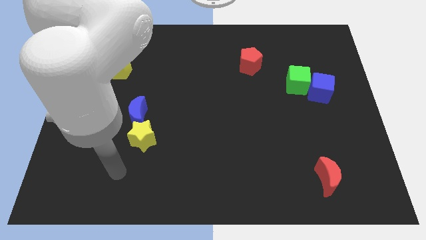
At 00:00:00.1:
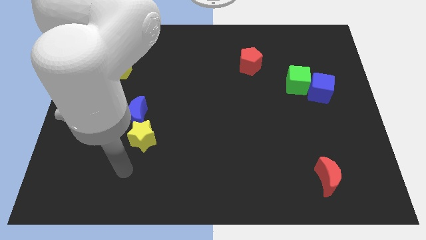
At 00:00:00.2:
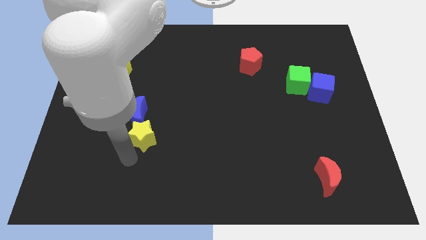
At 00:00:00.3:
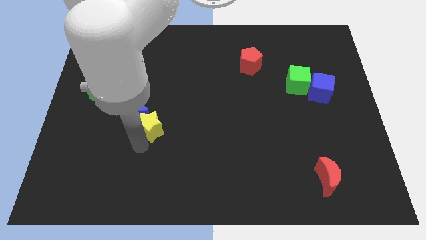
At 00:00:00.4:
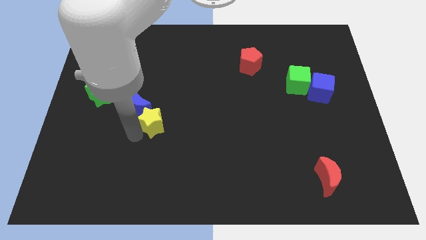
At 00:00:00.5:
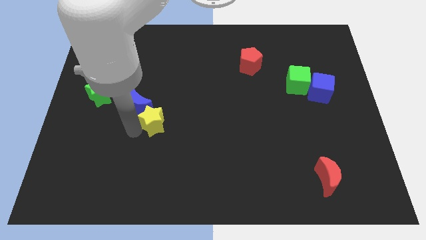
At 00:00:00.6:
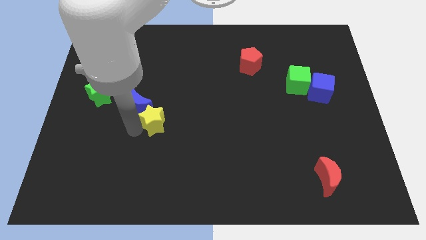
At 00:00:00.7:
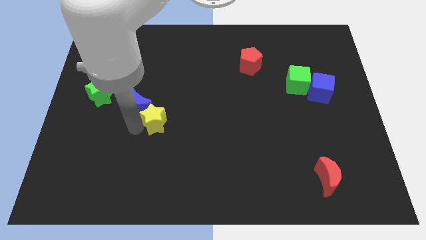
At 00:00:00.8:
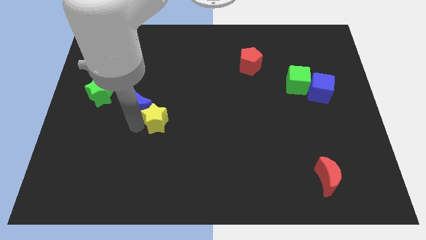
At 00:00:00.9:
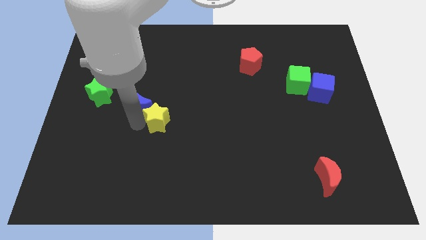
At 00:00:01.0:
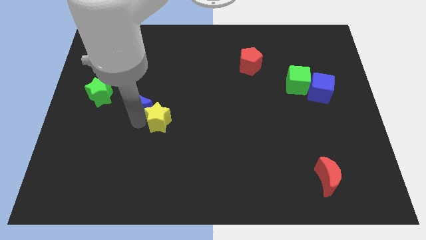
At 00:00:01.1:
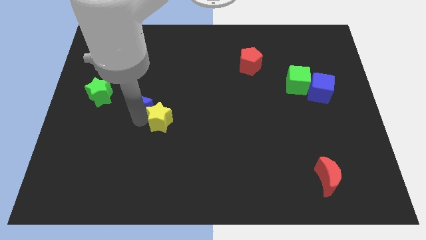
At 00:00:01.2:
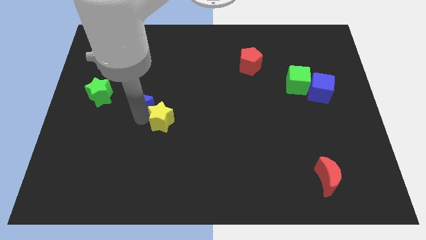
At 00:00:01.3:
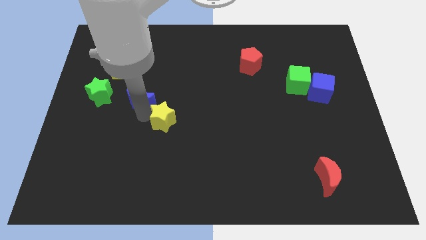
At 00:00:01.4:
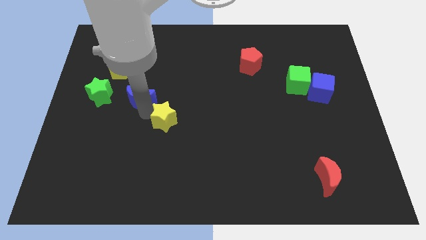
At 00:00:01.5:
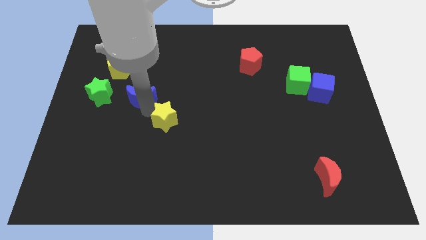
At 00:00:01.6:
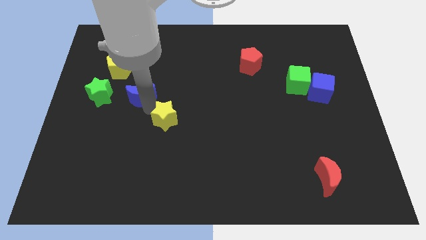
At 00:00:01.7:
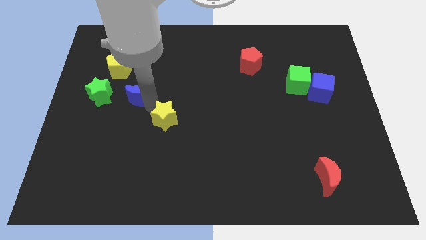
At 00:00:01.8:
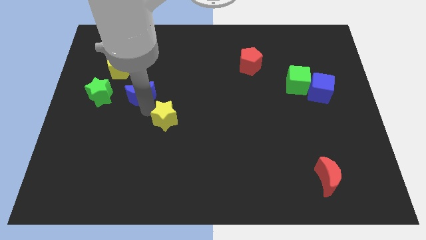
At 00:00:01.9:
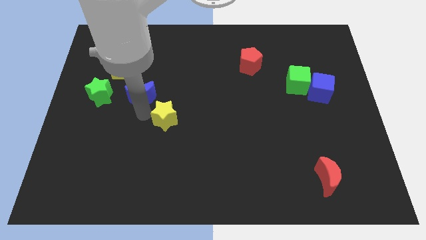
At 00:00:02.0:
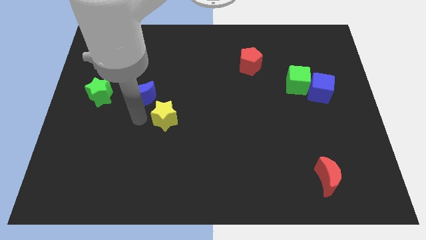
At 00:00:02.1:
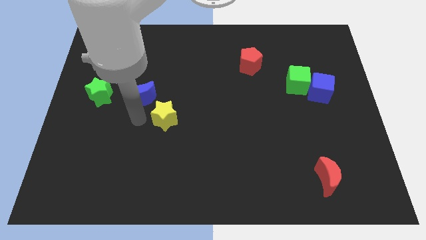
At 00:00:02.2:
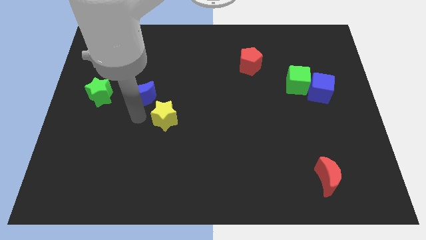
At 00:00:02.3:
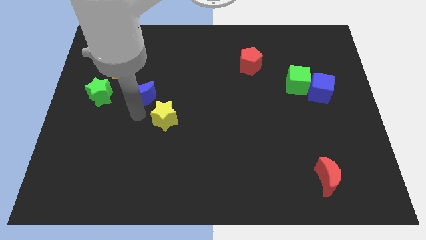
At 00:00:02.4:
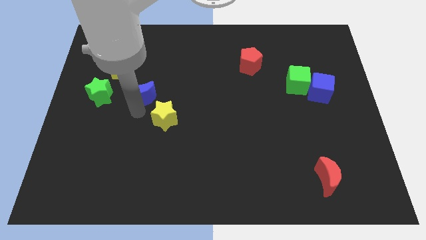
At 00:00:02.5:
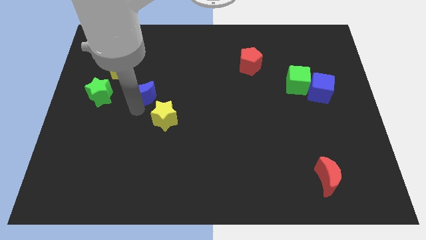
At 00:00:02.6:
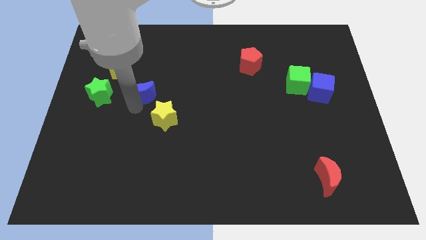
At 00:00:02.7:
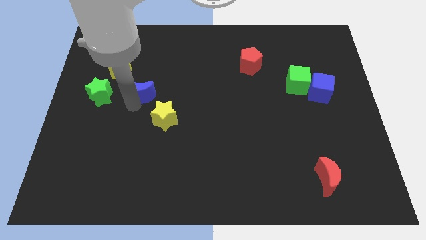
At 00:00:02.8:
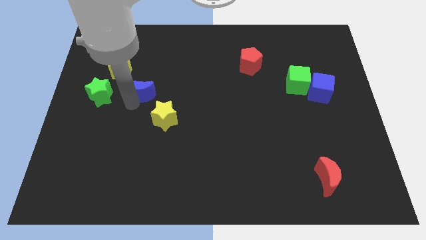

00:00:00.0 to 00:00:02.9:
slightly move the blue moon up

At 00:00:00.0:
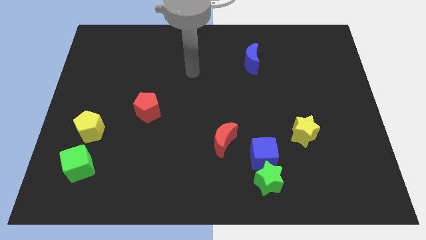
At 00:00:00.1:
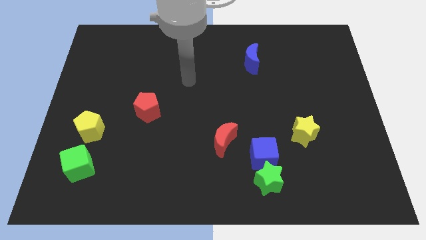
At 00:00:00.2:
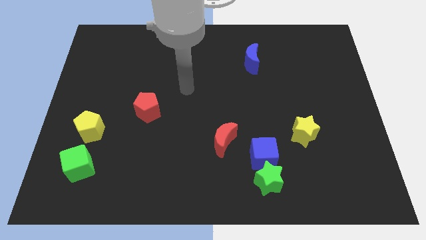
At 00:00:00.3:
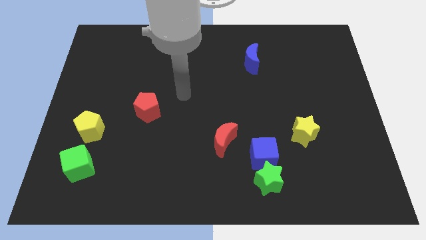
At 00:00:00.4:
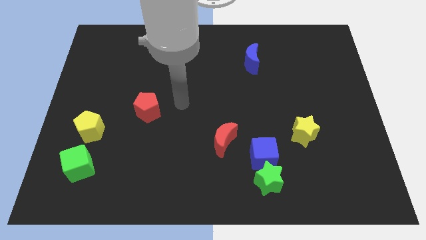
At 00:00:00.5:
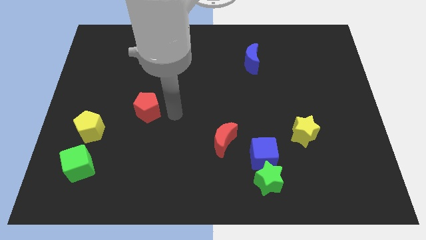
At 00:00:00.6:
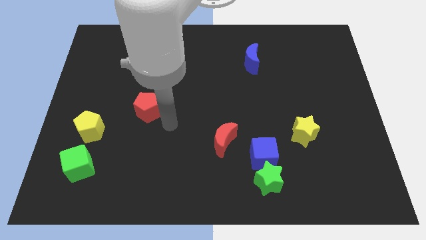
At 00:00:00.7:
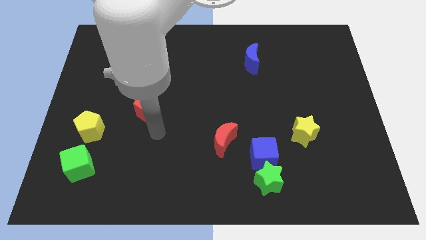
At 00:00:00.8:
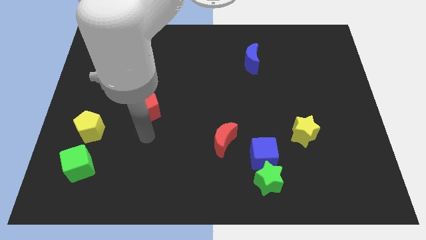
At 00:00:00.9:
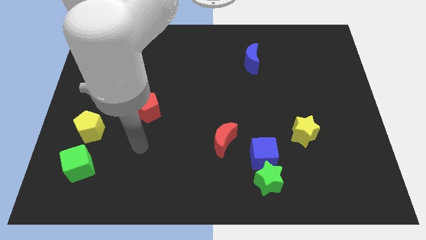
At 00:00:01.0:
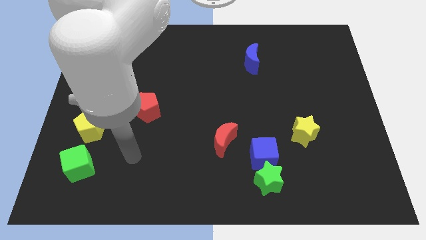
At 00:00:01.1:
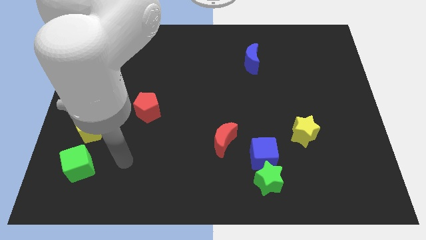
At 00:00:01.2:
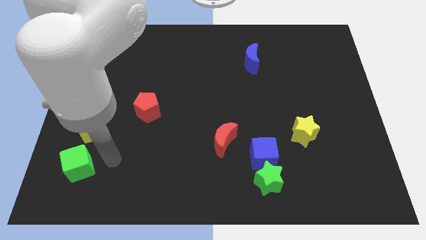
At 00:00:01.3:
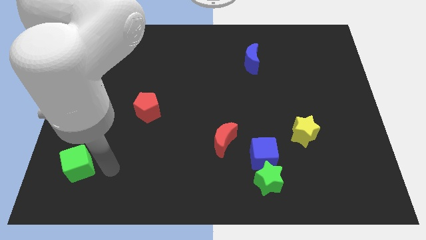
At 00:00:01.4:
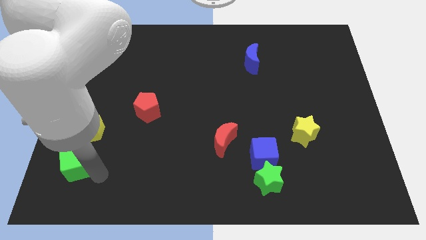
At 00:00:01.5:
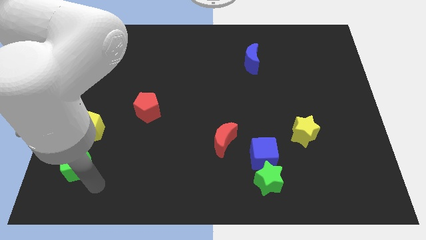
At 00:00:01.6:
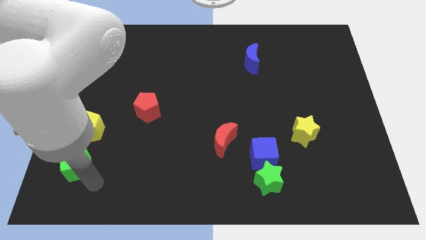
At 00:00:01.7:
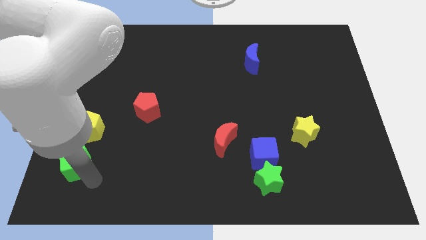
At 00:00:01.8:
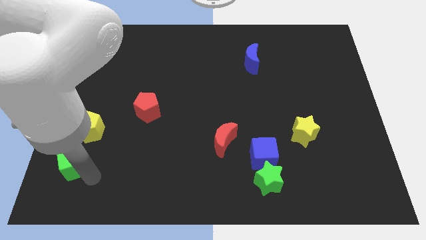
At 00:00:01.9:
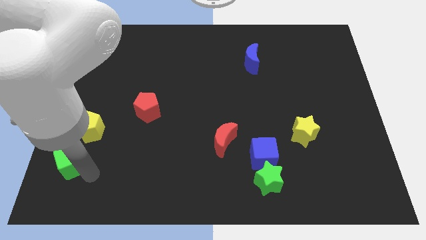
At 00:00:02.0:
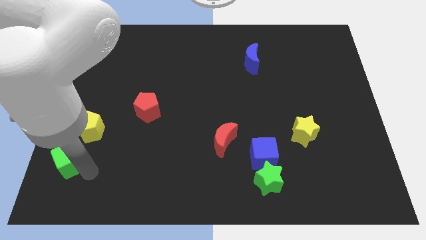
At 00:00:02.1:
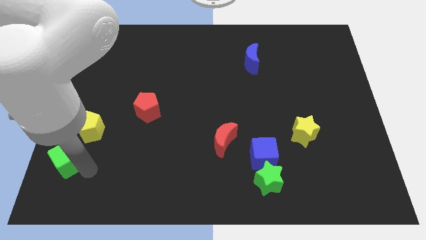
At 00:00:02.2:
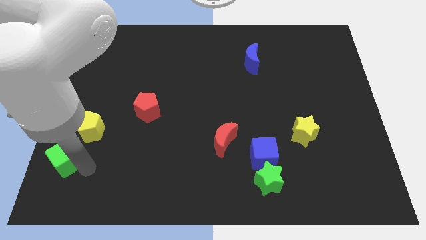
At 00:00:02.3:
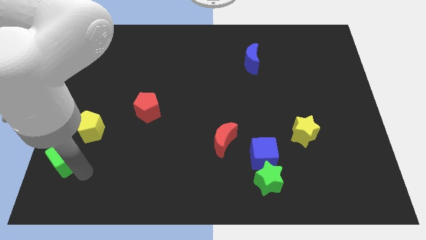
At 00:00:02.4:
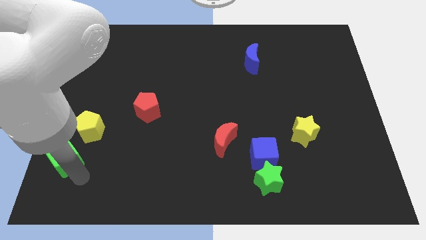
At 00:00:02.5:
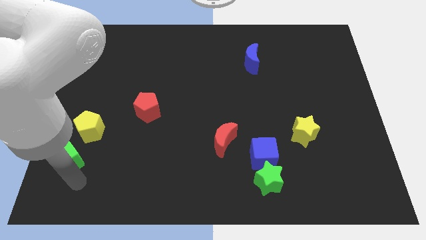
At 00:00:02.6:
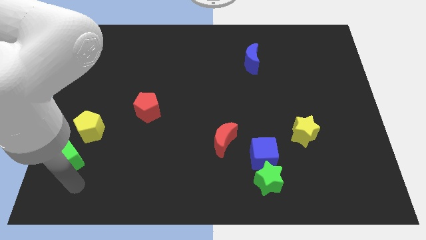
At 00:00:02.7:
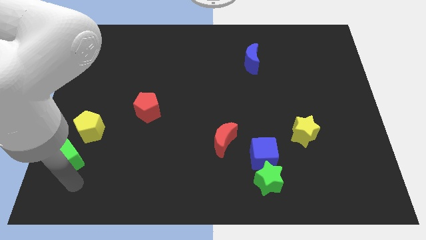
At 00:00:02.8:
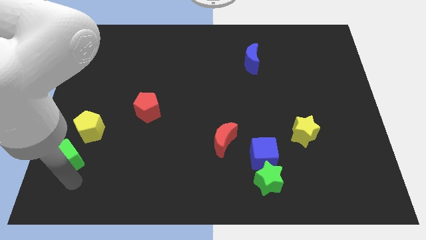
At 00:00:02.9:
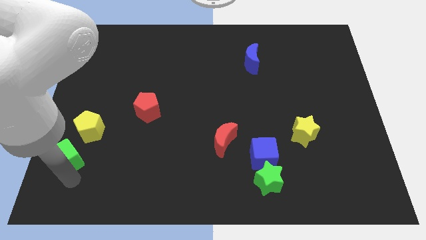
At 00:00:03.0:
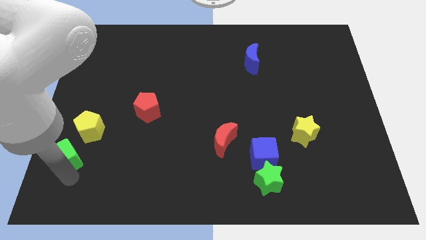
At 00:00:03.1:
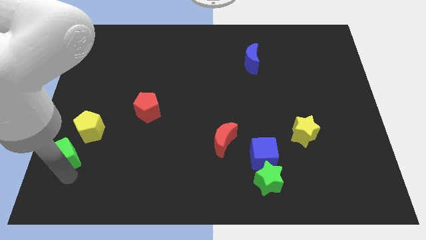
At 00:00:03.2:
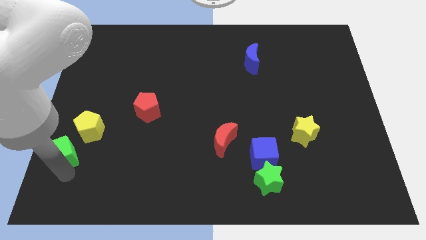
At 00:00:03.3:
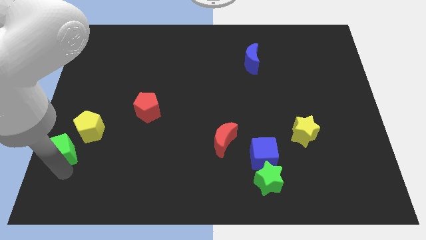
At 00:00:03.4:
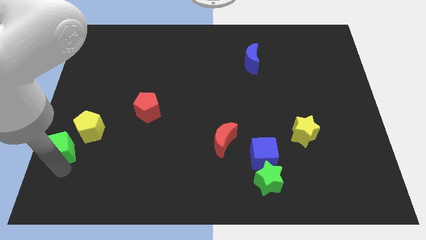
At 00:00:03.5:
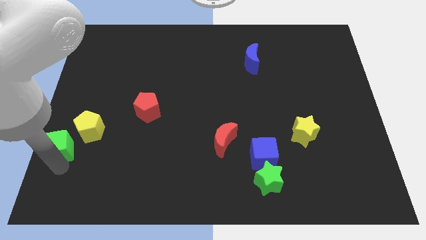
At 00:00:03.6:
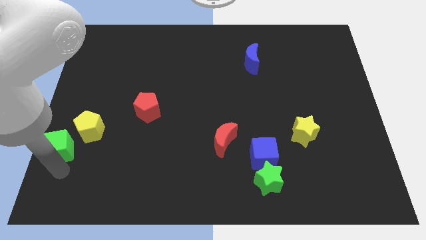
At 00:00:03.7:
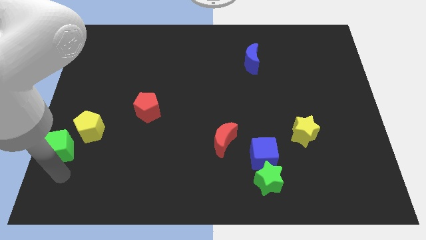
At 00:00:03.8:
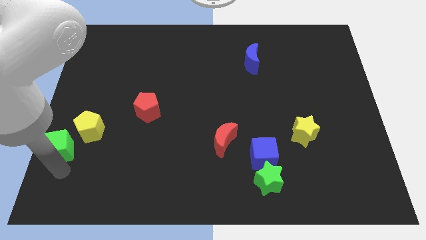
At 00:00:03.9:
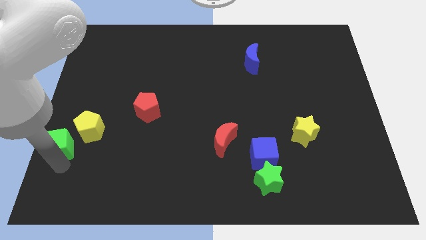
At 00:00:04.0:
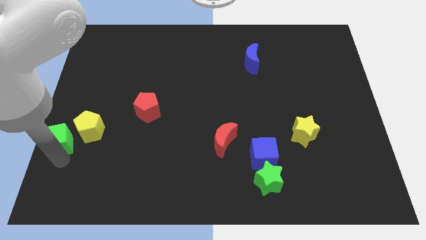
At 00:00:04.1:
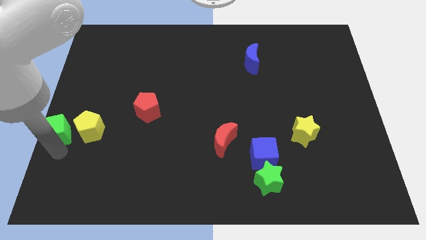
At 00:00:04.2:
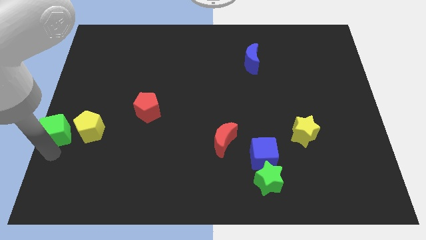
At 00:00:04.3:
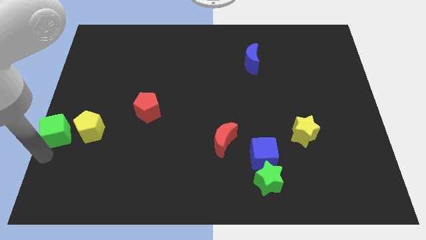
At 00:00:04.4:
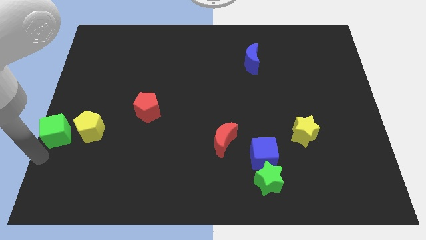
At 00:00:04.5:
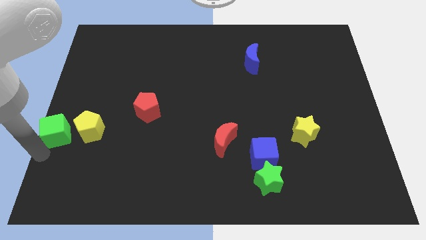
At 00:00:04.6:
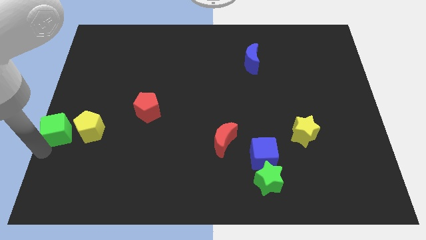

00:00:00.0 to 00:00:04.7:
move the green cube up a little bit

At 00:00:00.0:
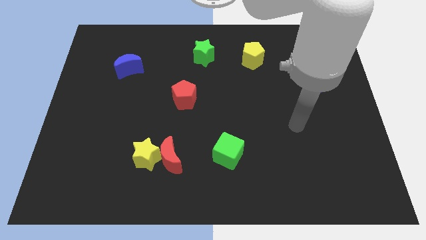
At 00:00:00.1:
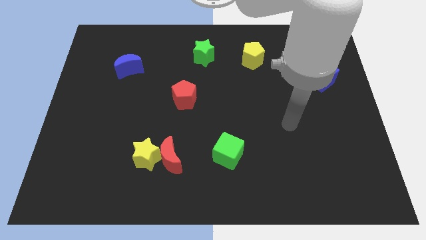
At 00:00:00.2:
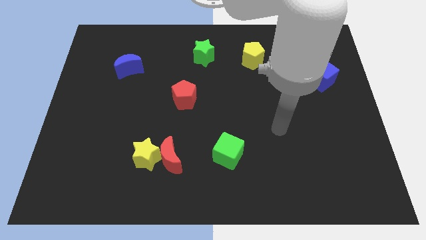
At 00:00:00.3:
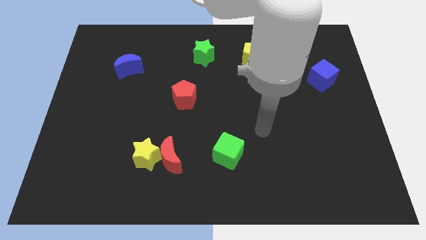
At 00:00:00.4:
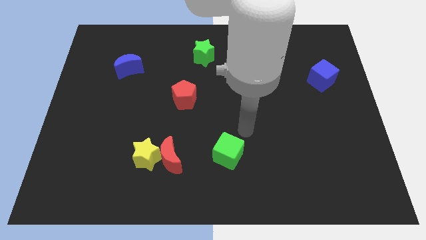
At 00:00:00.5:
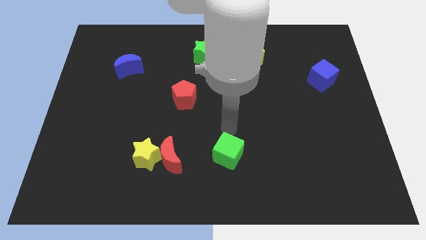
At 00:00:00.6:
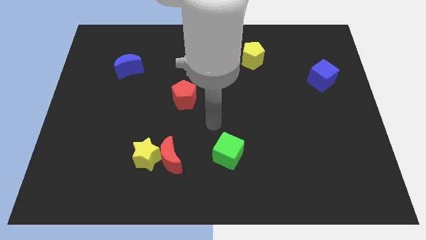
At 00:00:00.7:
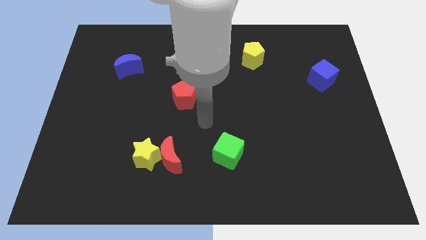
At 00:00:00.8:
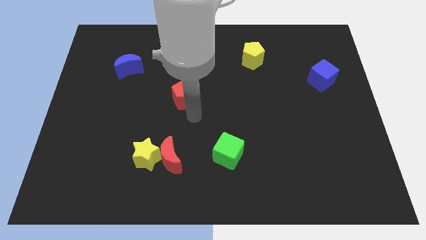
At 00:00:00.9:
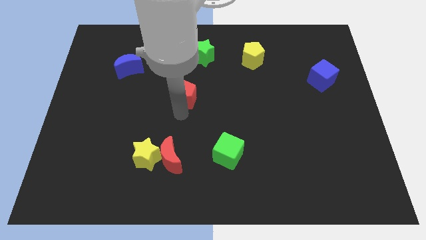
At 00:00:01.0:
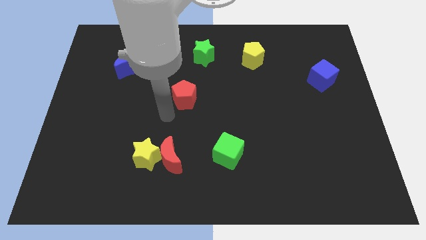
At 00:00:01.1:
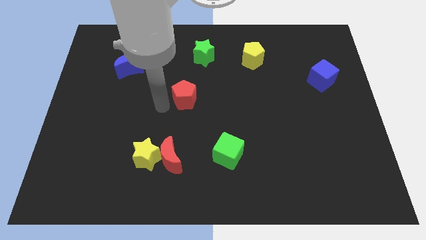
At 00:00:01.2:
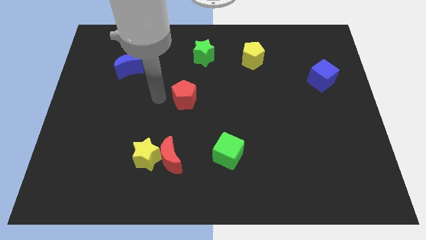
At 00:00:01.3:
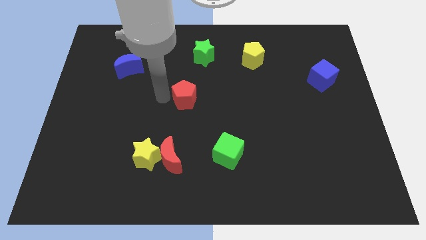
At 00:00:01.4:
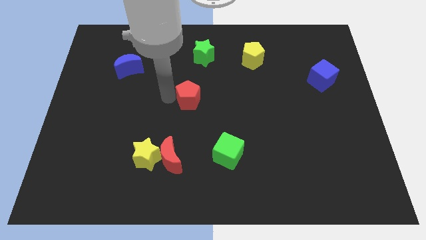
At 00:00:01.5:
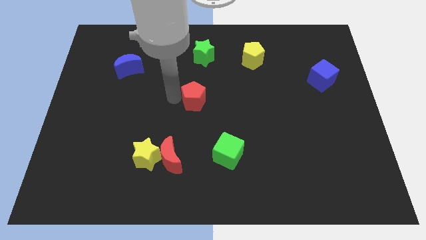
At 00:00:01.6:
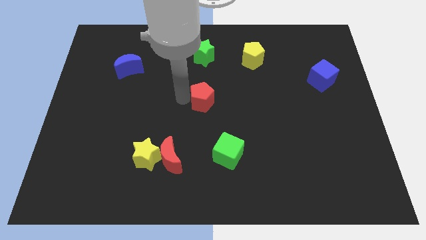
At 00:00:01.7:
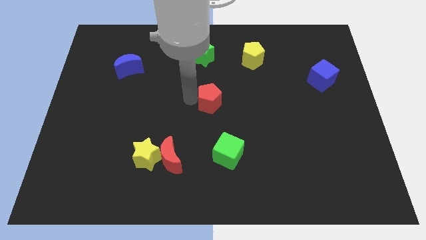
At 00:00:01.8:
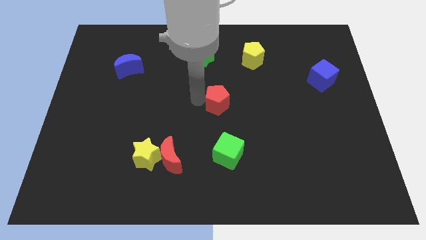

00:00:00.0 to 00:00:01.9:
push the red pentagon a little bit to the right
